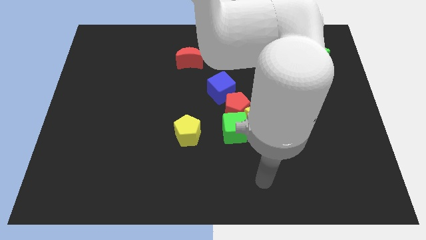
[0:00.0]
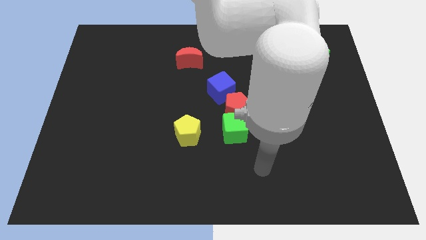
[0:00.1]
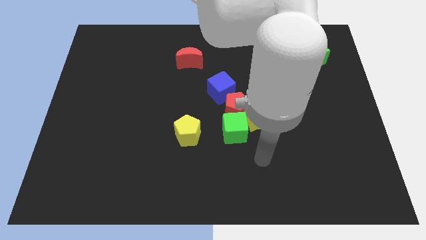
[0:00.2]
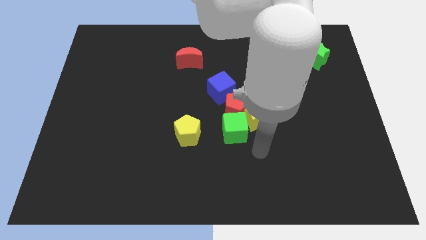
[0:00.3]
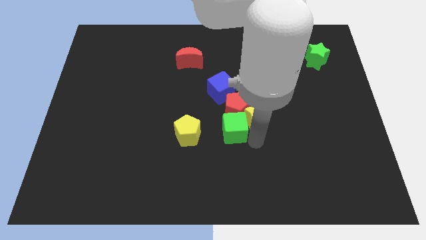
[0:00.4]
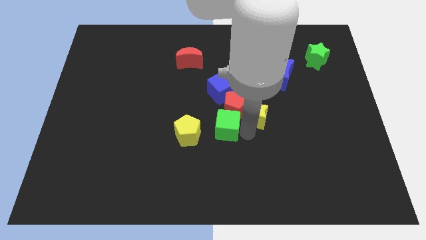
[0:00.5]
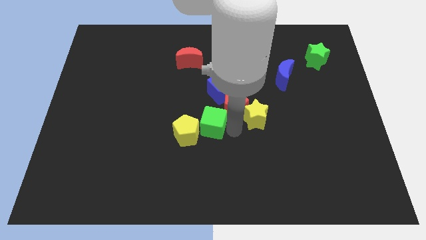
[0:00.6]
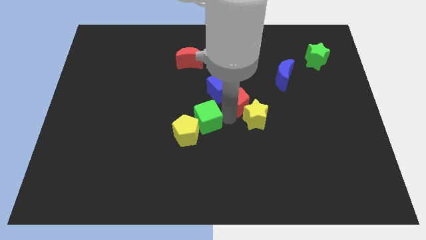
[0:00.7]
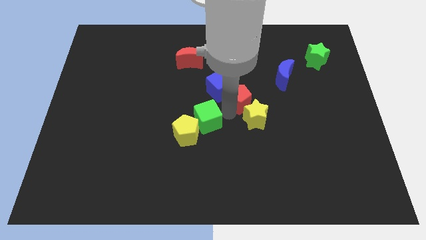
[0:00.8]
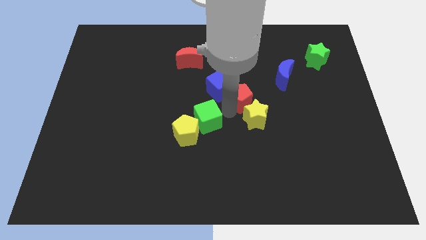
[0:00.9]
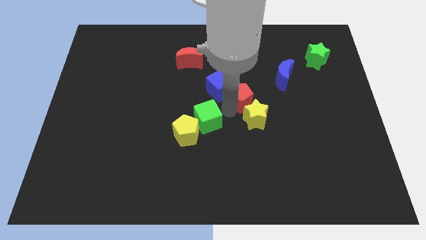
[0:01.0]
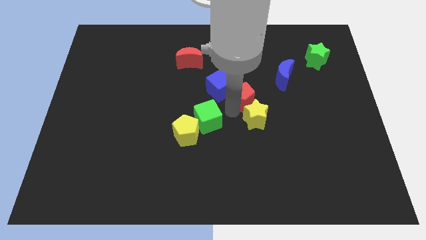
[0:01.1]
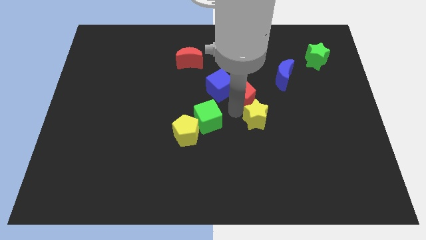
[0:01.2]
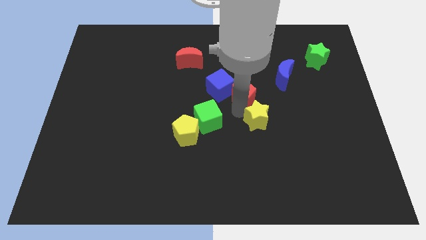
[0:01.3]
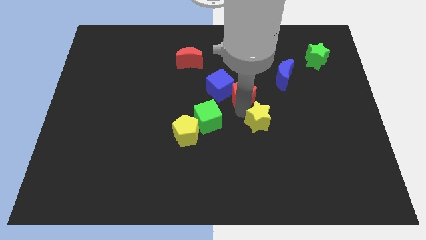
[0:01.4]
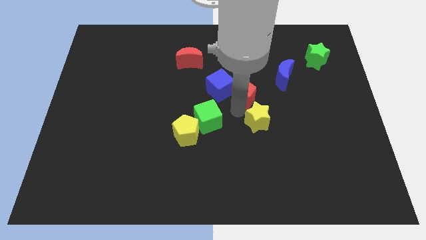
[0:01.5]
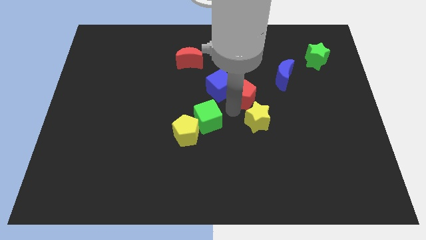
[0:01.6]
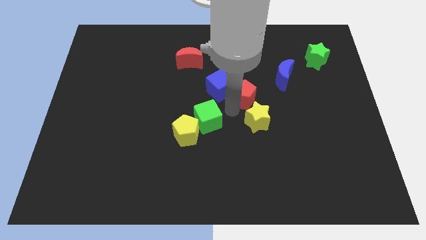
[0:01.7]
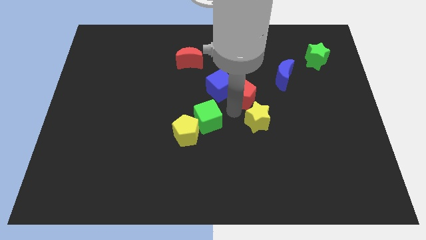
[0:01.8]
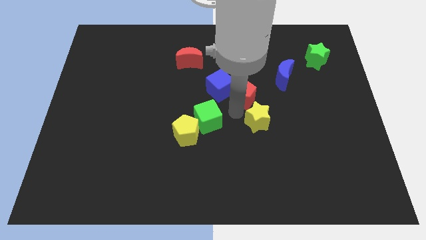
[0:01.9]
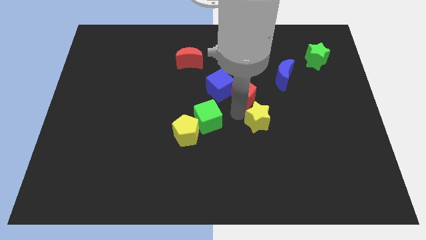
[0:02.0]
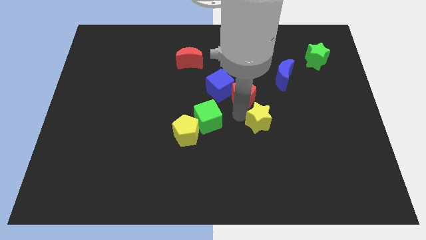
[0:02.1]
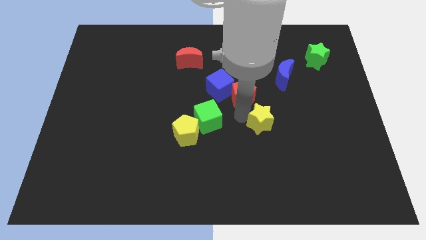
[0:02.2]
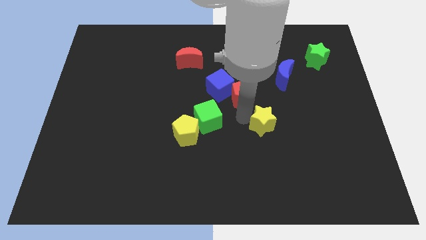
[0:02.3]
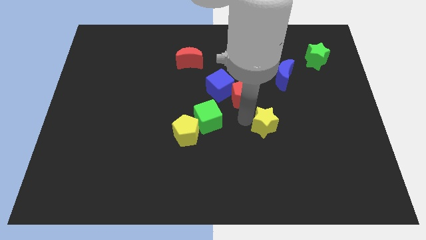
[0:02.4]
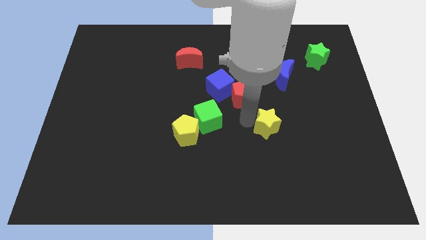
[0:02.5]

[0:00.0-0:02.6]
pull the yellow star apart from the red pentagon and green cube

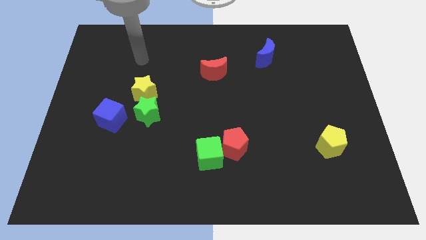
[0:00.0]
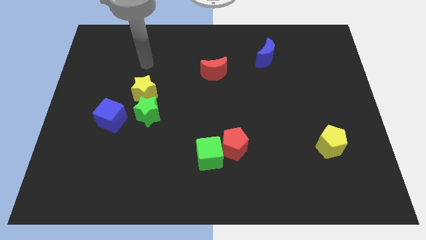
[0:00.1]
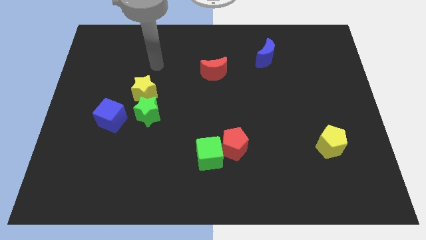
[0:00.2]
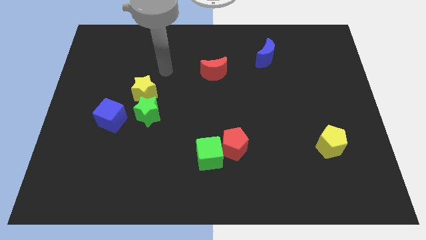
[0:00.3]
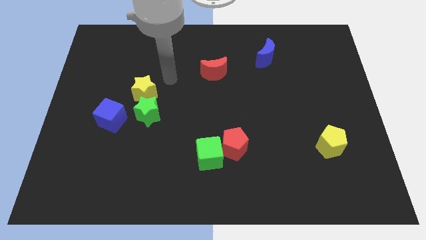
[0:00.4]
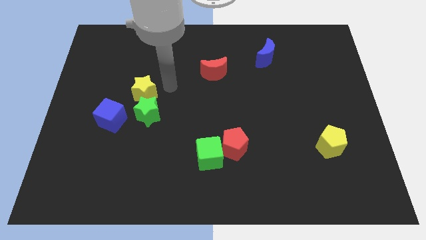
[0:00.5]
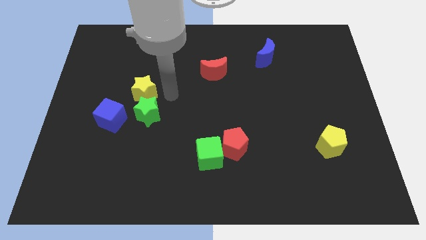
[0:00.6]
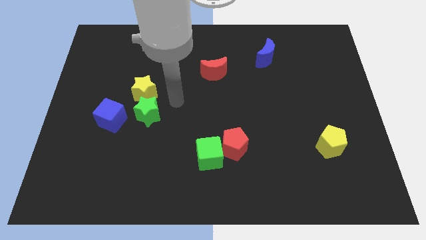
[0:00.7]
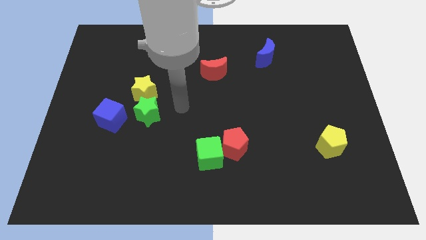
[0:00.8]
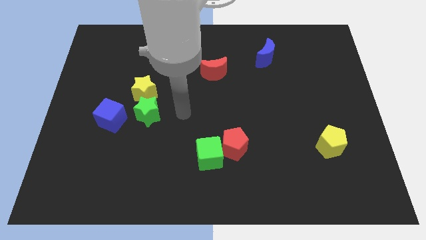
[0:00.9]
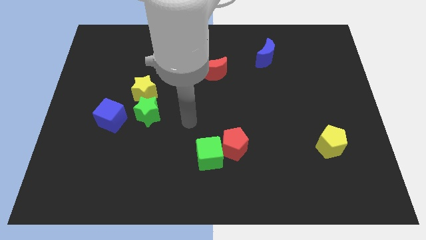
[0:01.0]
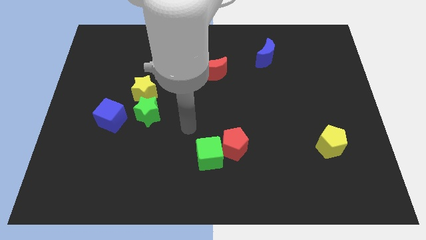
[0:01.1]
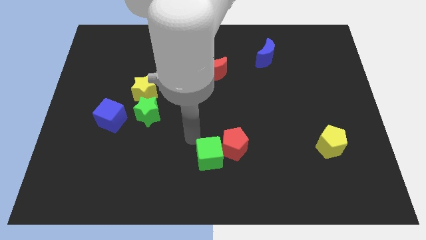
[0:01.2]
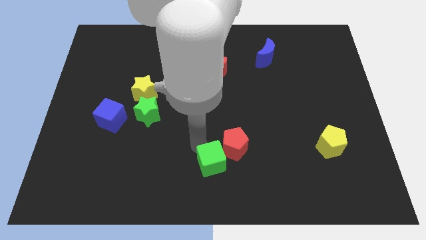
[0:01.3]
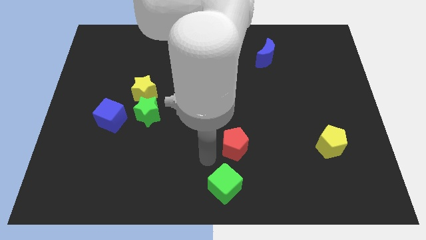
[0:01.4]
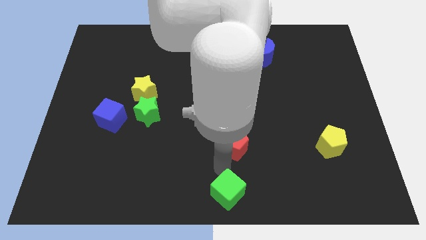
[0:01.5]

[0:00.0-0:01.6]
move the red pentagon away from the green cube

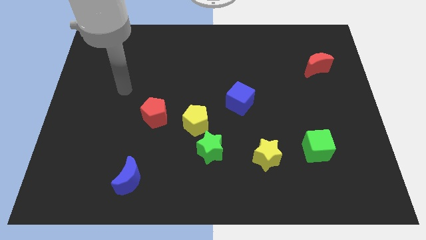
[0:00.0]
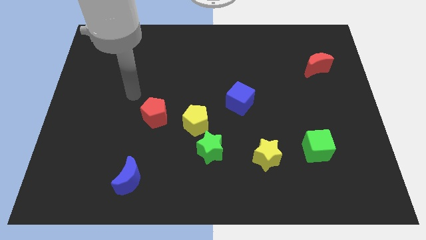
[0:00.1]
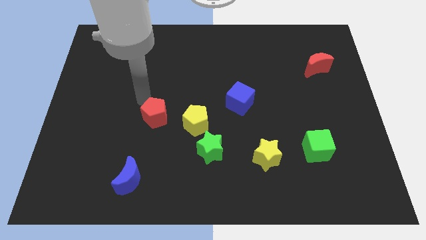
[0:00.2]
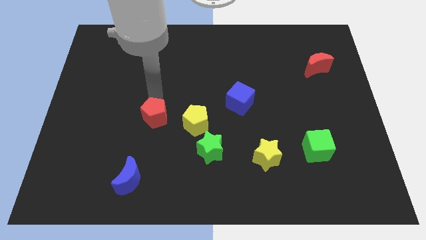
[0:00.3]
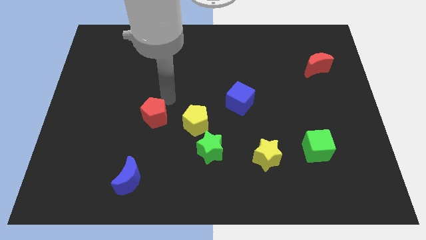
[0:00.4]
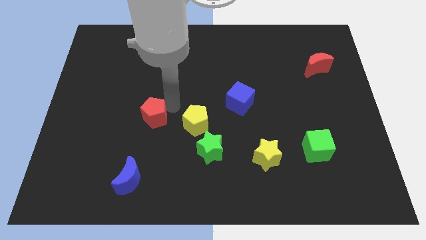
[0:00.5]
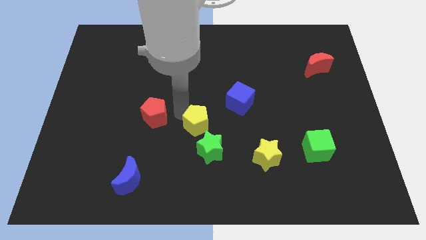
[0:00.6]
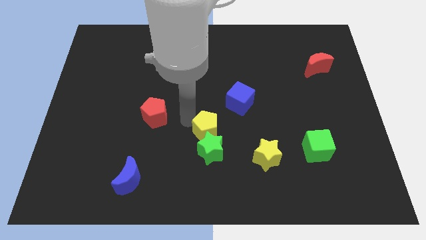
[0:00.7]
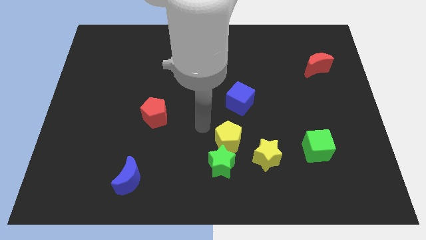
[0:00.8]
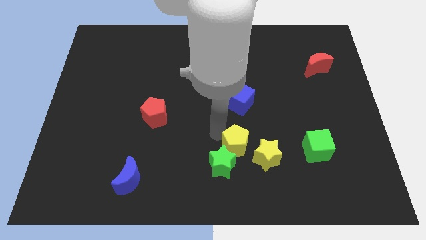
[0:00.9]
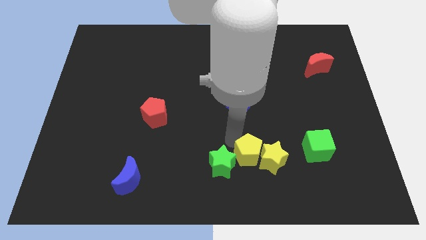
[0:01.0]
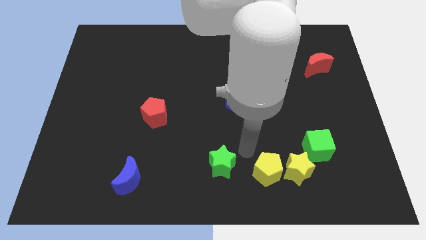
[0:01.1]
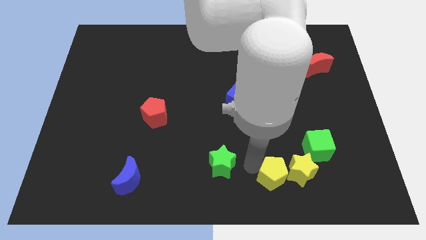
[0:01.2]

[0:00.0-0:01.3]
separate the green star from the yellow pentagon

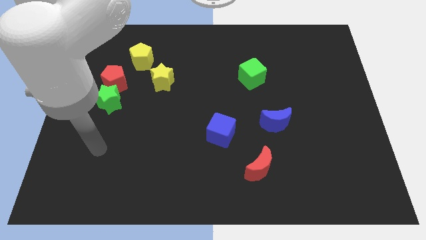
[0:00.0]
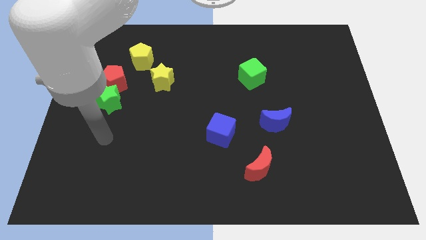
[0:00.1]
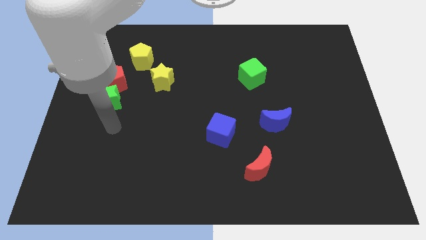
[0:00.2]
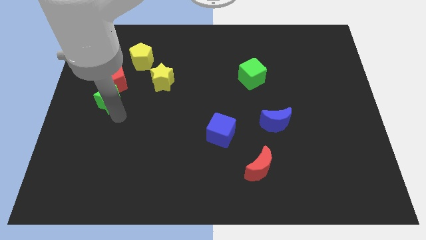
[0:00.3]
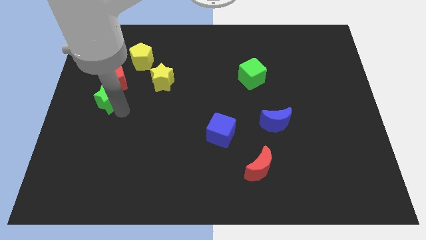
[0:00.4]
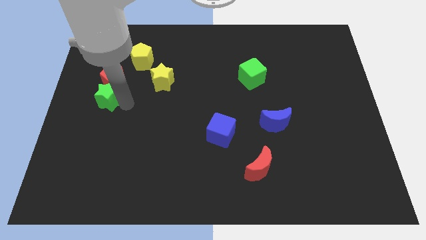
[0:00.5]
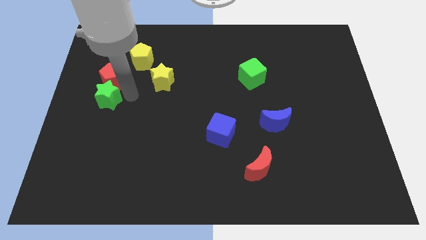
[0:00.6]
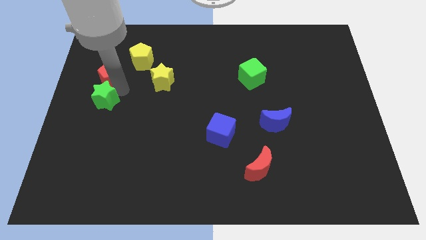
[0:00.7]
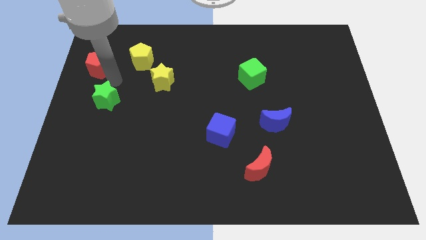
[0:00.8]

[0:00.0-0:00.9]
separate the green star from the red pentagon

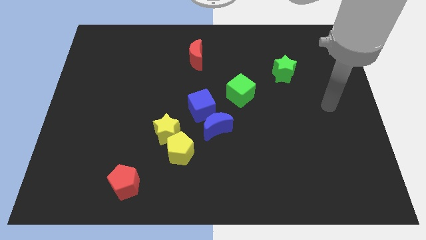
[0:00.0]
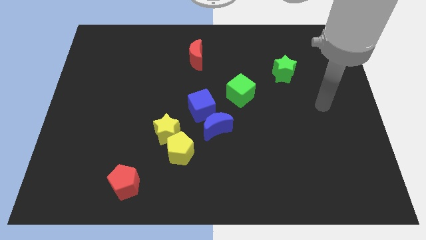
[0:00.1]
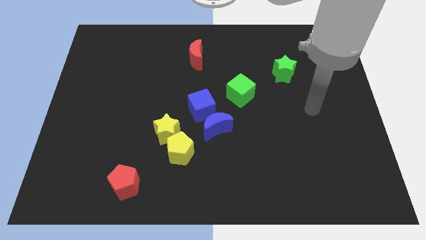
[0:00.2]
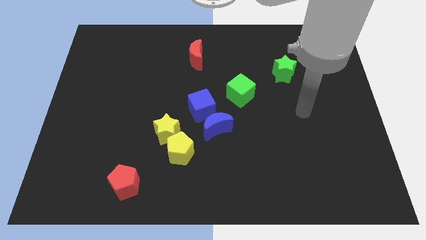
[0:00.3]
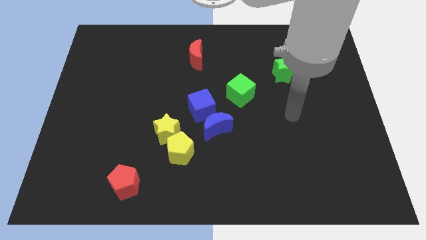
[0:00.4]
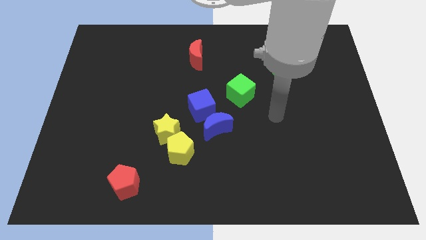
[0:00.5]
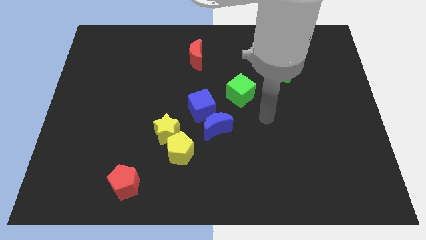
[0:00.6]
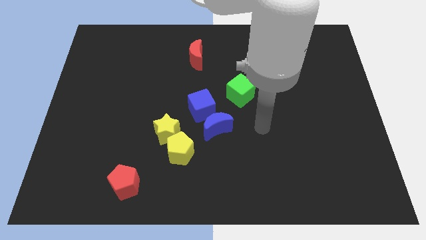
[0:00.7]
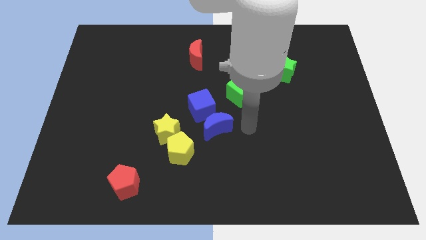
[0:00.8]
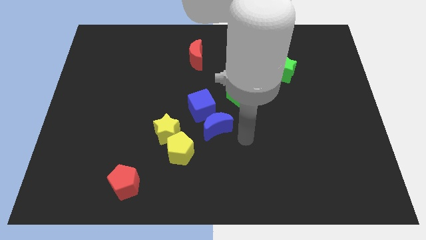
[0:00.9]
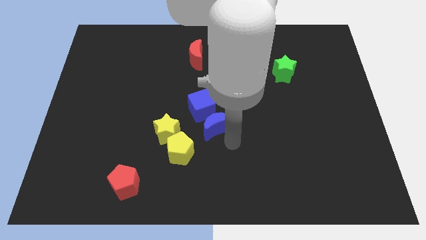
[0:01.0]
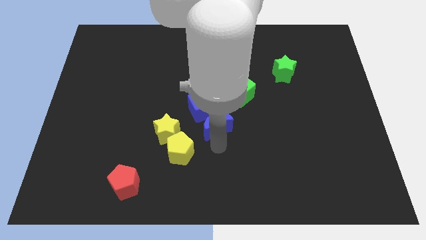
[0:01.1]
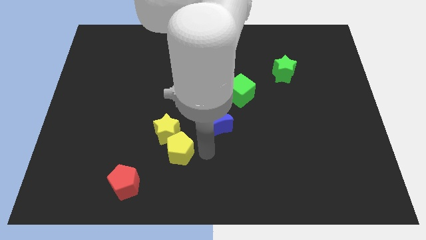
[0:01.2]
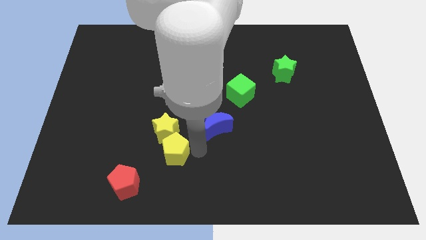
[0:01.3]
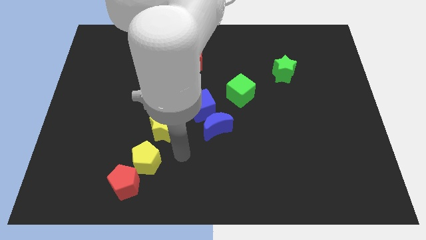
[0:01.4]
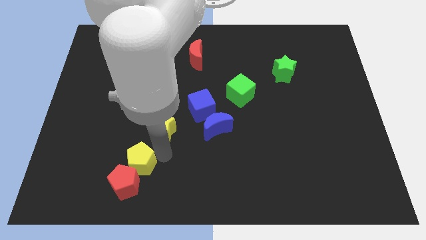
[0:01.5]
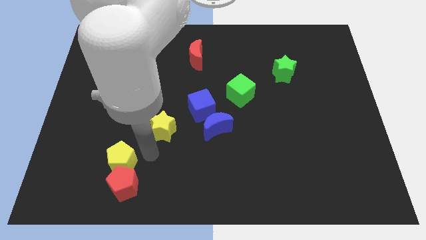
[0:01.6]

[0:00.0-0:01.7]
pull the yellow star apart from the yellow pentagon

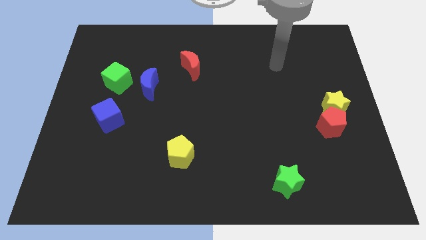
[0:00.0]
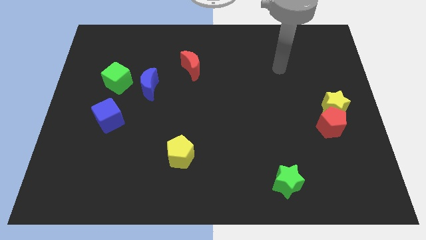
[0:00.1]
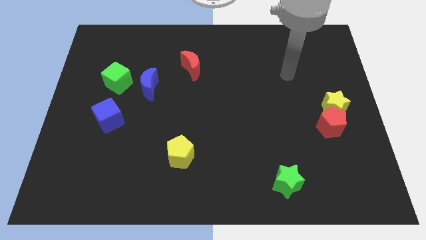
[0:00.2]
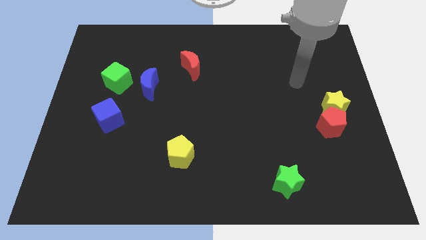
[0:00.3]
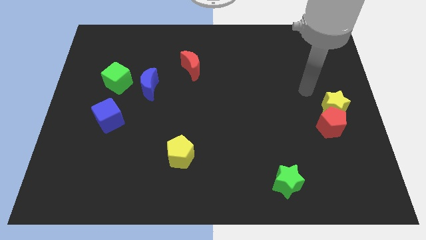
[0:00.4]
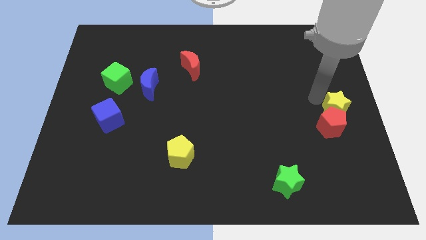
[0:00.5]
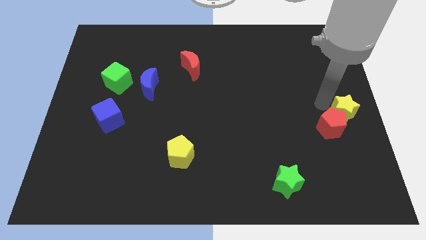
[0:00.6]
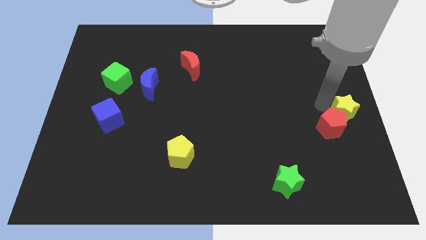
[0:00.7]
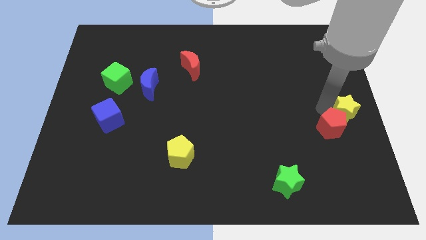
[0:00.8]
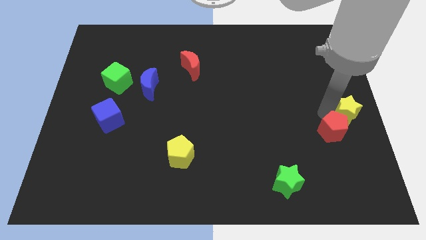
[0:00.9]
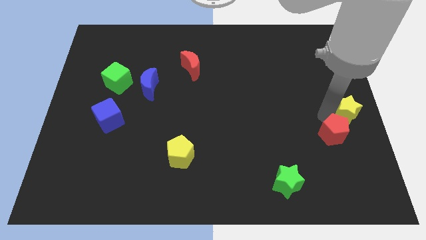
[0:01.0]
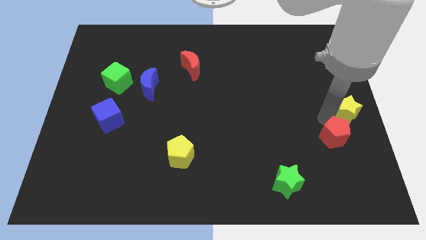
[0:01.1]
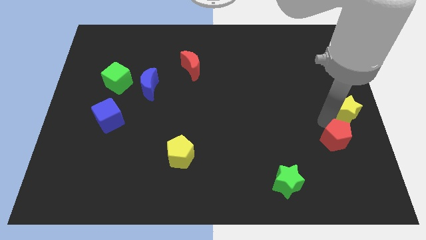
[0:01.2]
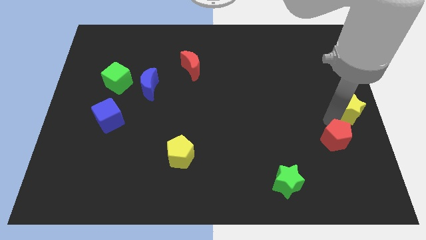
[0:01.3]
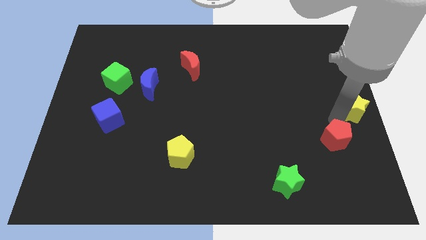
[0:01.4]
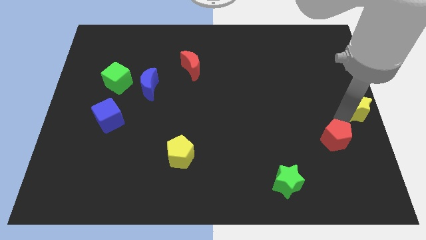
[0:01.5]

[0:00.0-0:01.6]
move the red pentagon away from the yellow star
